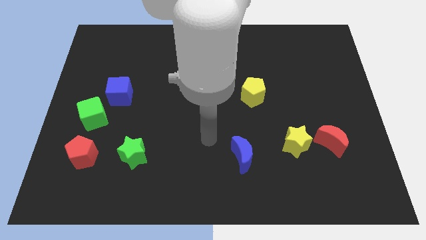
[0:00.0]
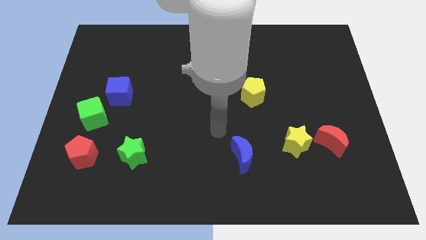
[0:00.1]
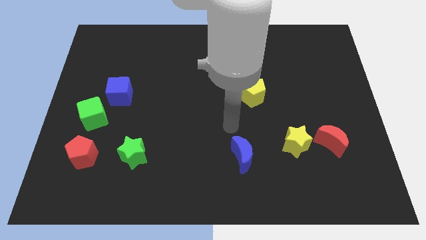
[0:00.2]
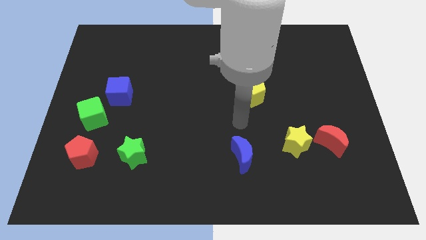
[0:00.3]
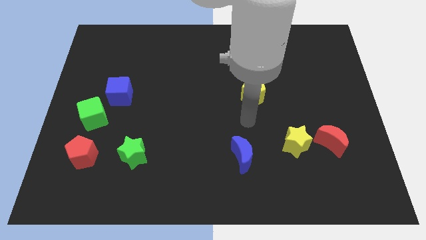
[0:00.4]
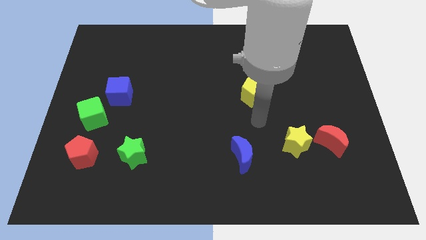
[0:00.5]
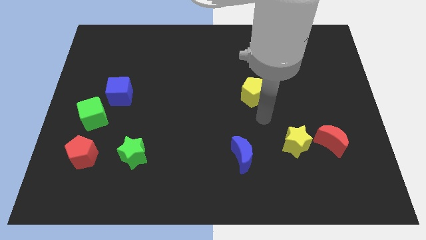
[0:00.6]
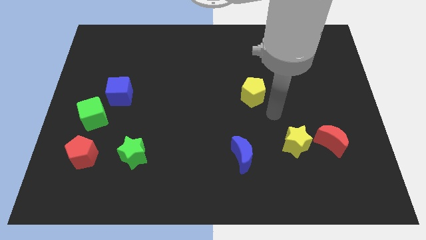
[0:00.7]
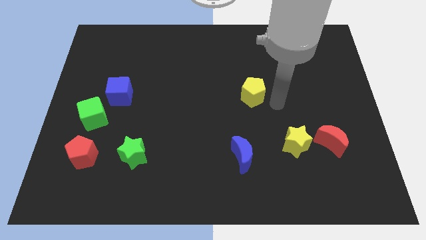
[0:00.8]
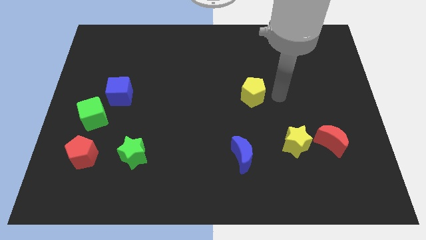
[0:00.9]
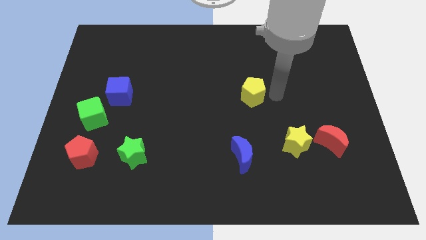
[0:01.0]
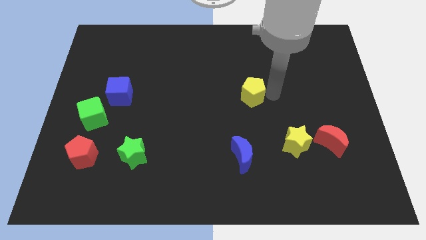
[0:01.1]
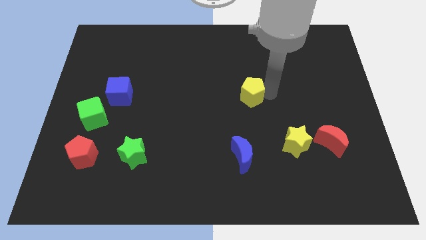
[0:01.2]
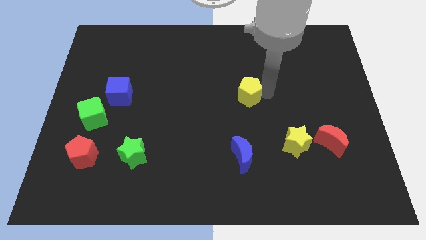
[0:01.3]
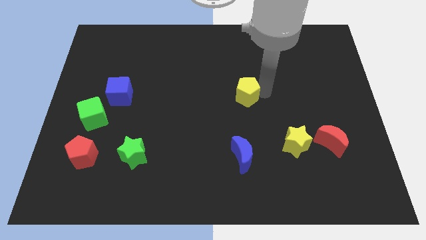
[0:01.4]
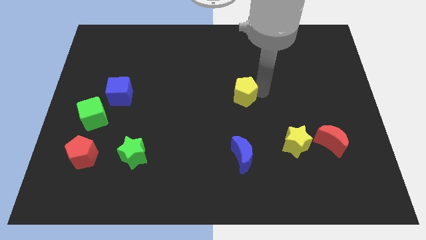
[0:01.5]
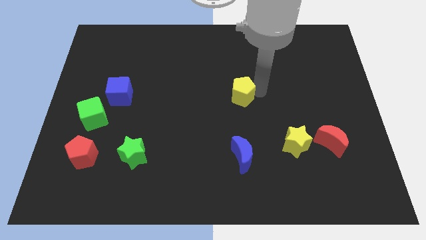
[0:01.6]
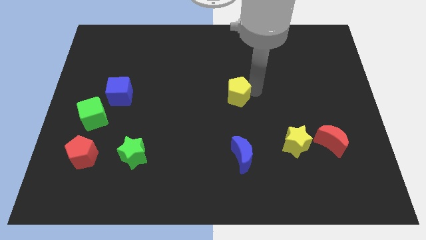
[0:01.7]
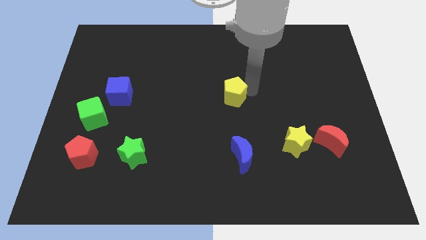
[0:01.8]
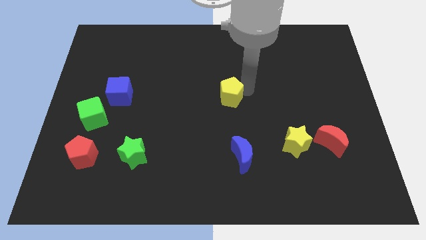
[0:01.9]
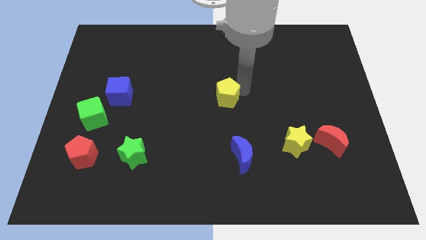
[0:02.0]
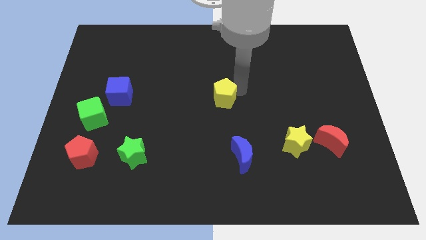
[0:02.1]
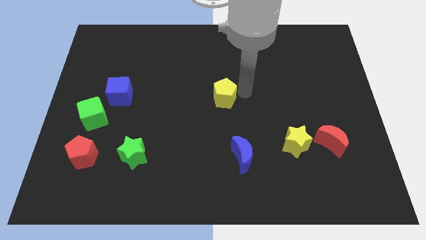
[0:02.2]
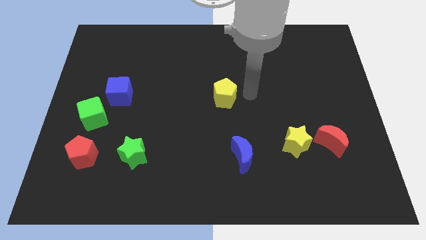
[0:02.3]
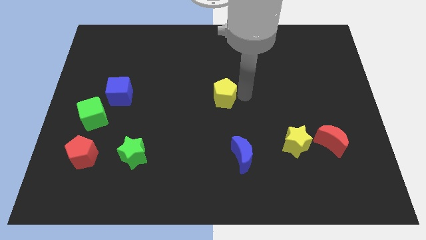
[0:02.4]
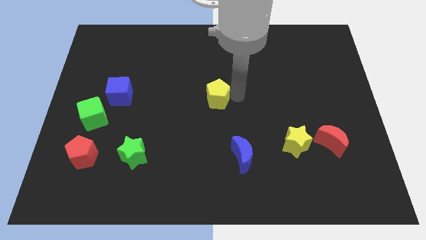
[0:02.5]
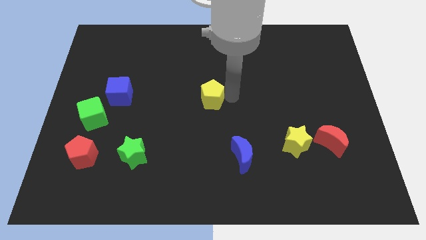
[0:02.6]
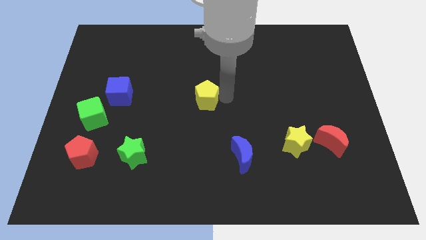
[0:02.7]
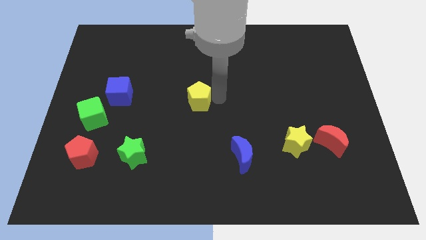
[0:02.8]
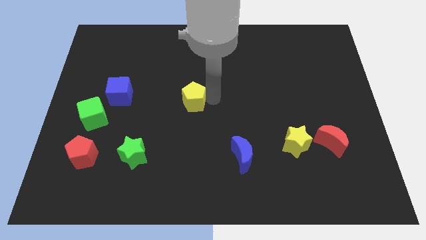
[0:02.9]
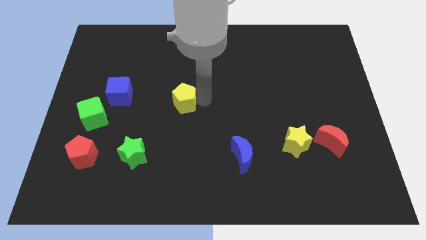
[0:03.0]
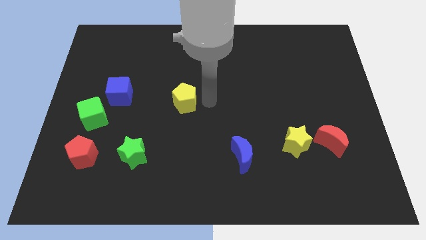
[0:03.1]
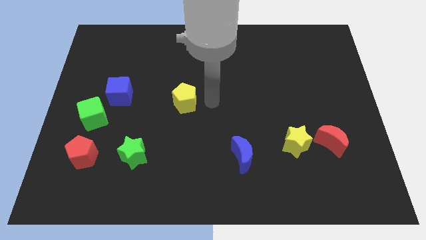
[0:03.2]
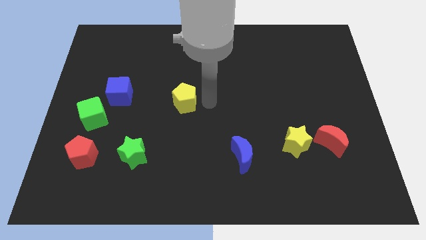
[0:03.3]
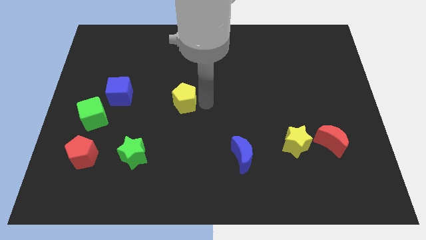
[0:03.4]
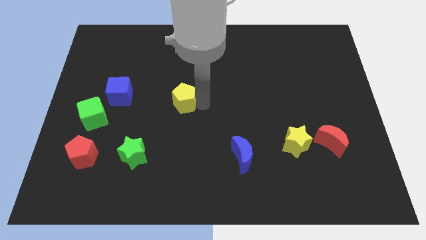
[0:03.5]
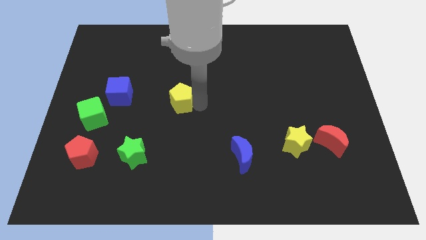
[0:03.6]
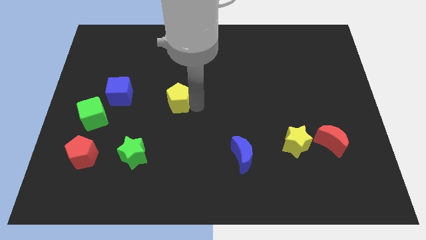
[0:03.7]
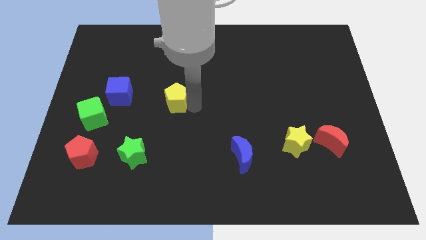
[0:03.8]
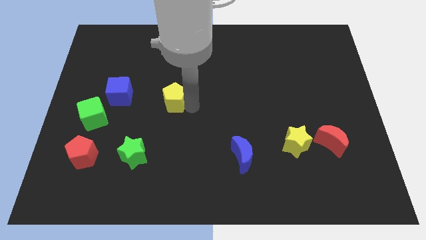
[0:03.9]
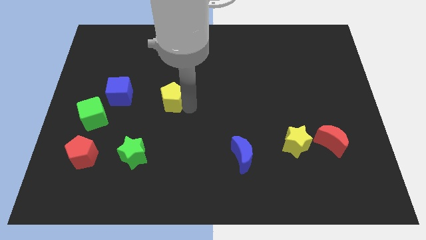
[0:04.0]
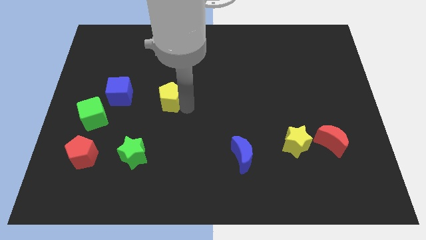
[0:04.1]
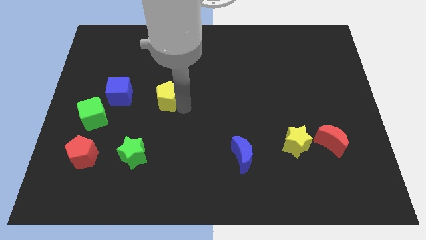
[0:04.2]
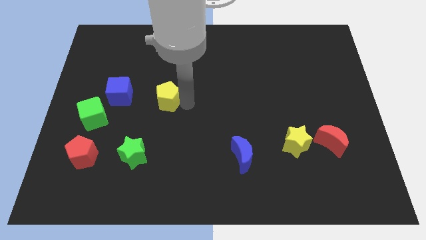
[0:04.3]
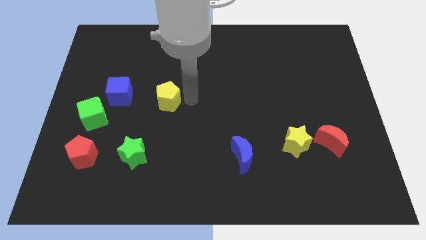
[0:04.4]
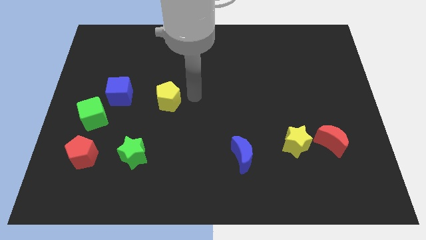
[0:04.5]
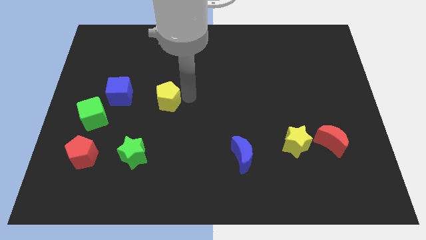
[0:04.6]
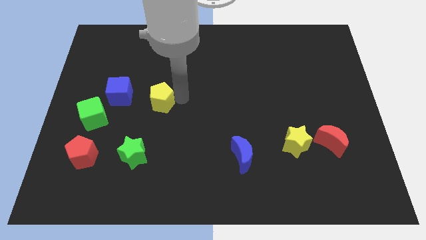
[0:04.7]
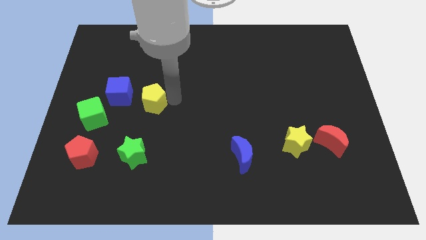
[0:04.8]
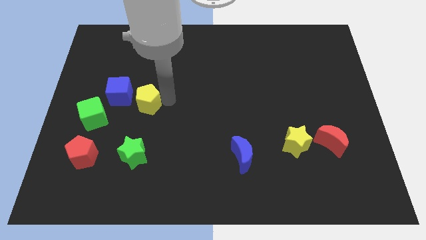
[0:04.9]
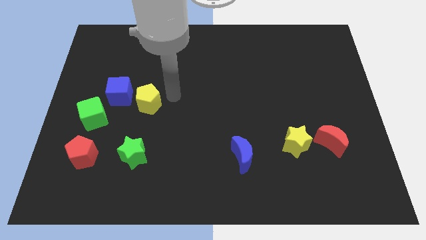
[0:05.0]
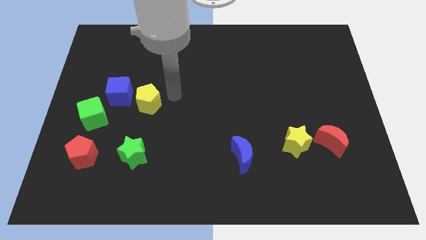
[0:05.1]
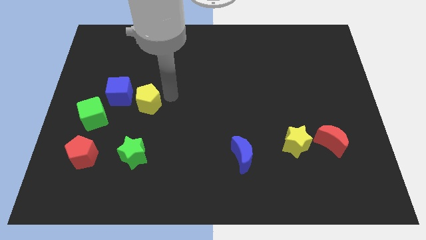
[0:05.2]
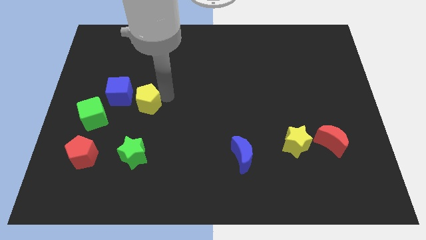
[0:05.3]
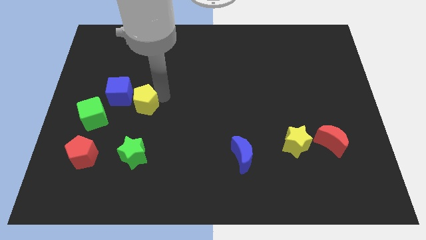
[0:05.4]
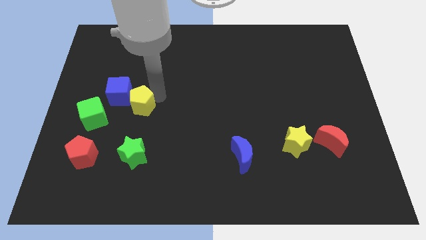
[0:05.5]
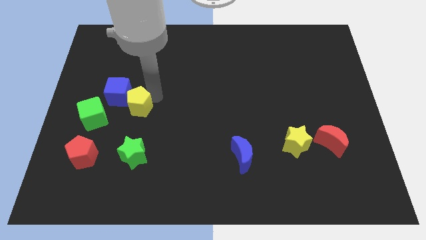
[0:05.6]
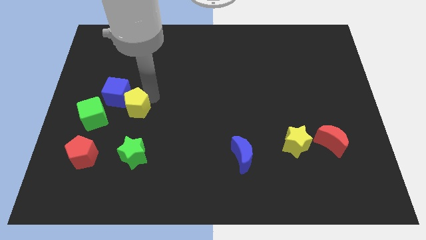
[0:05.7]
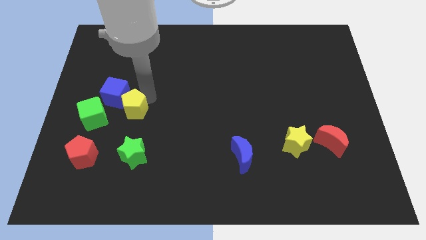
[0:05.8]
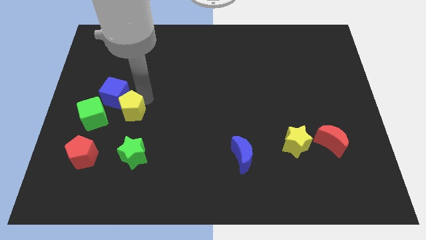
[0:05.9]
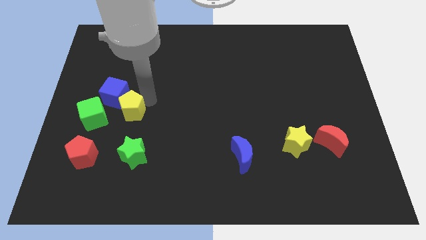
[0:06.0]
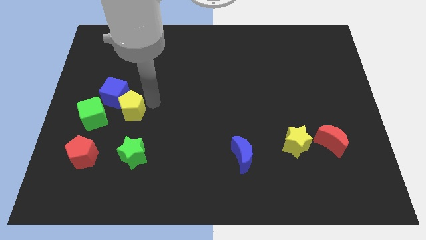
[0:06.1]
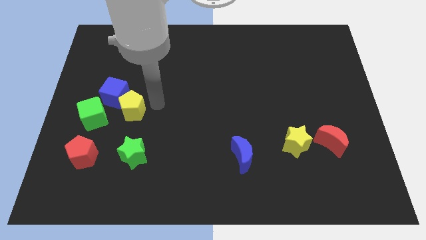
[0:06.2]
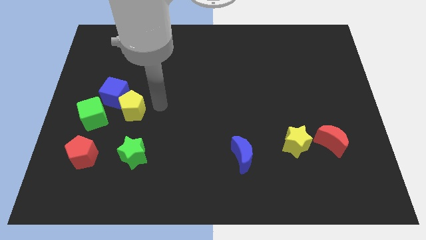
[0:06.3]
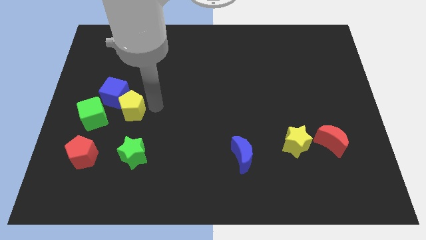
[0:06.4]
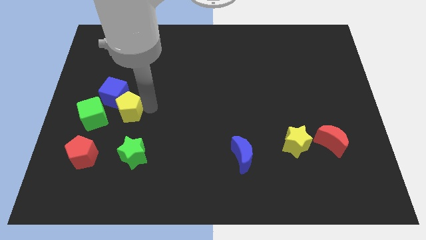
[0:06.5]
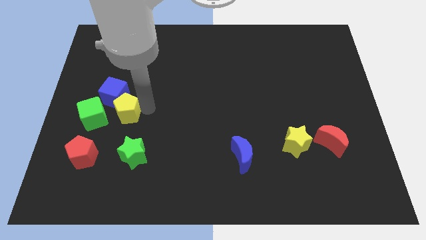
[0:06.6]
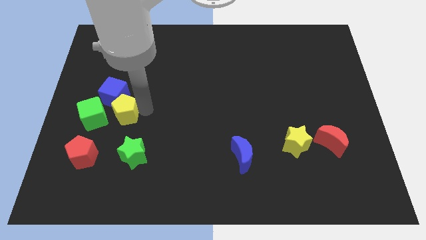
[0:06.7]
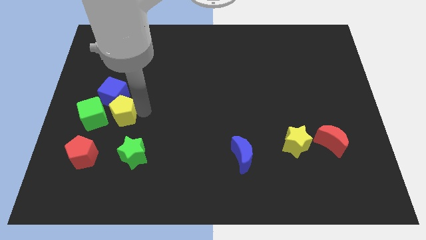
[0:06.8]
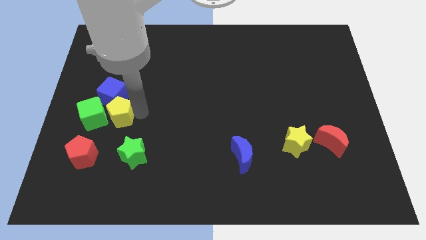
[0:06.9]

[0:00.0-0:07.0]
put the yellow pentagon close to the green cube

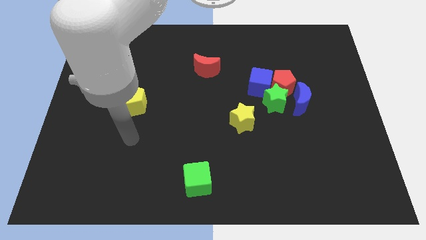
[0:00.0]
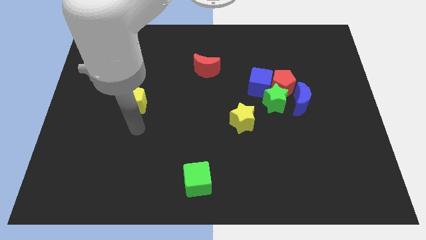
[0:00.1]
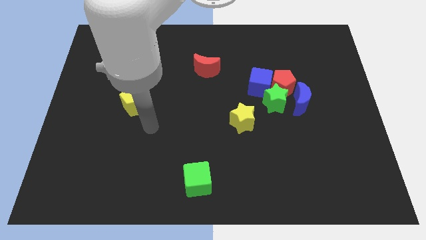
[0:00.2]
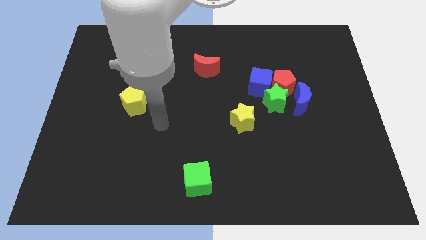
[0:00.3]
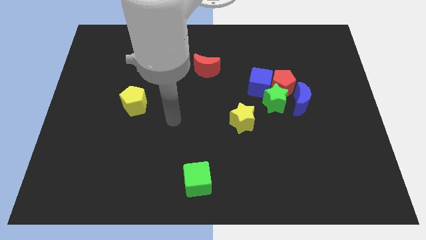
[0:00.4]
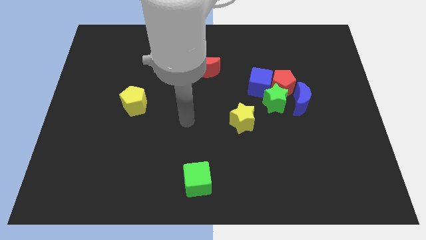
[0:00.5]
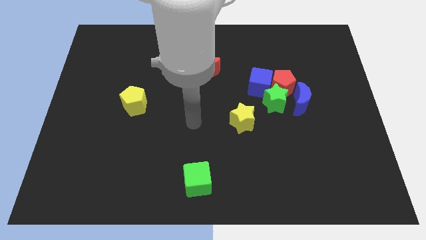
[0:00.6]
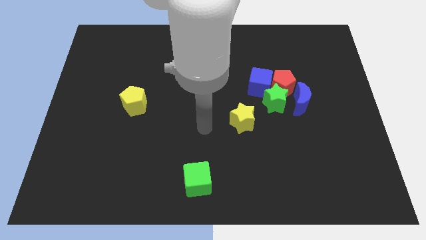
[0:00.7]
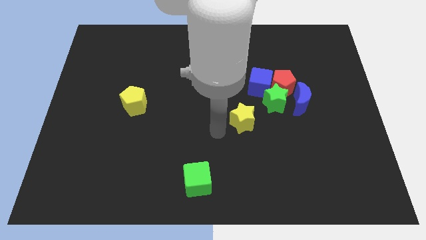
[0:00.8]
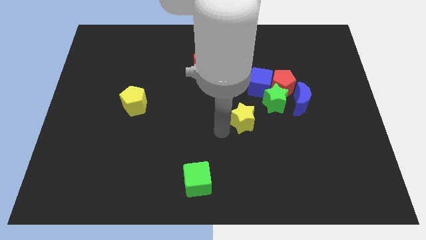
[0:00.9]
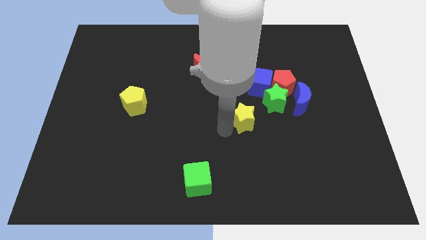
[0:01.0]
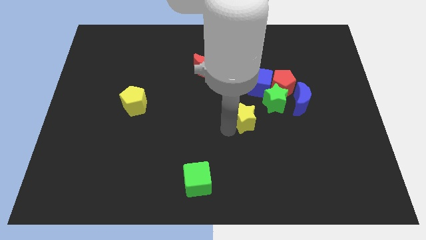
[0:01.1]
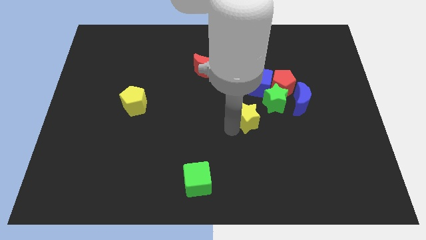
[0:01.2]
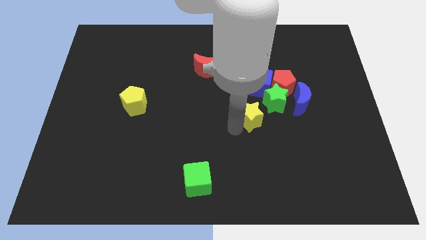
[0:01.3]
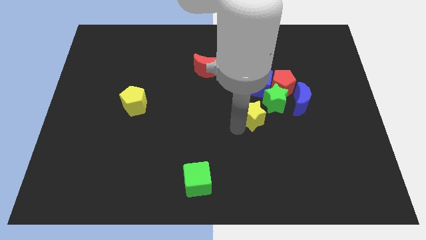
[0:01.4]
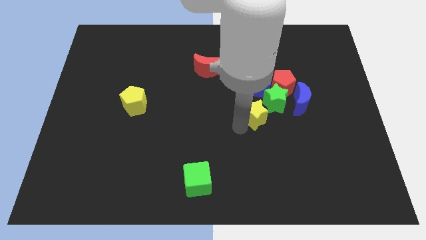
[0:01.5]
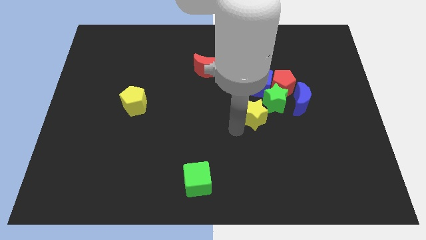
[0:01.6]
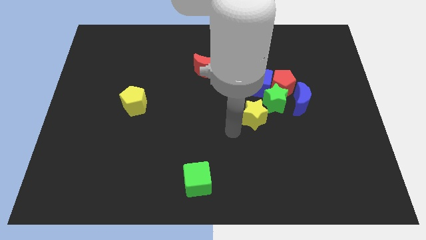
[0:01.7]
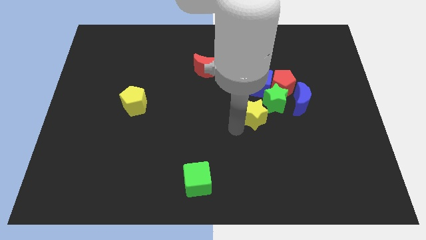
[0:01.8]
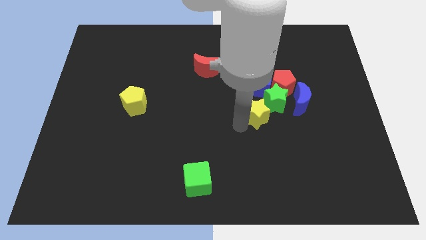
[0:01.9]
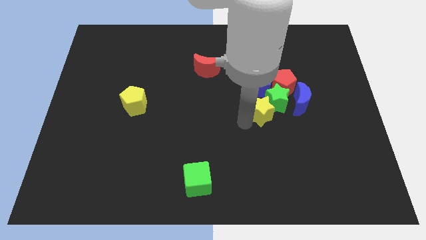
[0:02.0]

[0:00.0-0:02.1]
move the yellow star next to the green star
